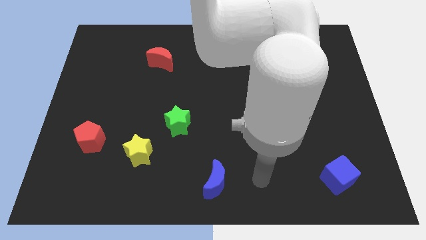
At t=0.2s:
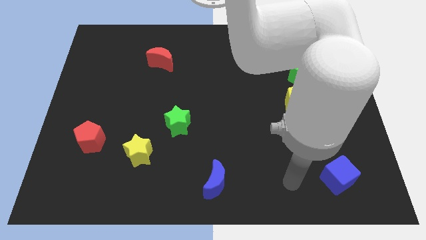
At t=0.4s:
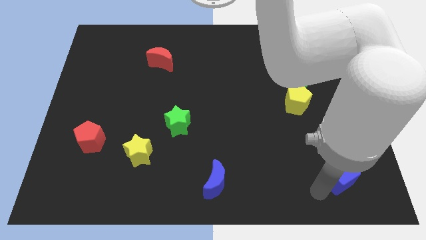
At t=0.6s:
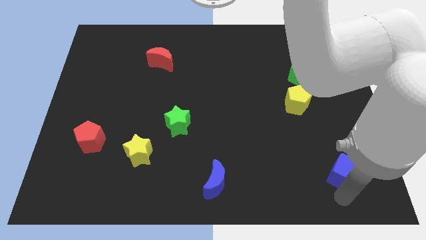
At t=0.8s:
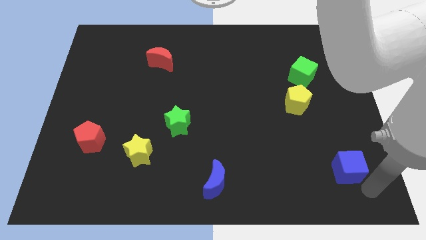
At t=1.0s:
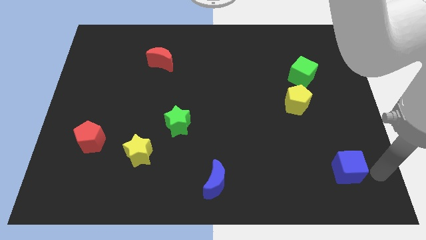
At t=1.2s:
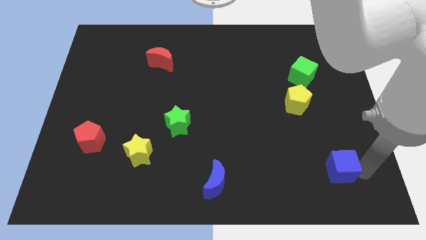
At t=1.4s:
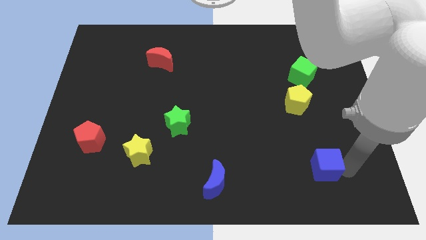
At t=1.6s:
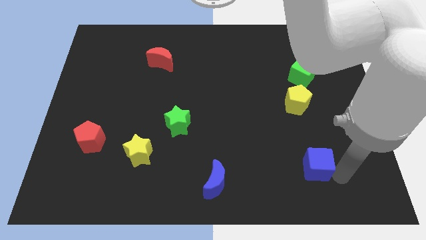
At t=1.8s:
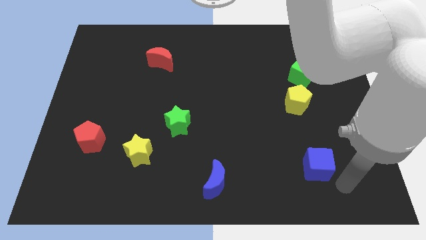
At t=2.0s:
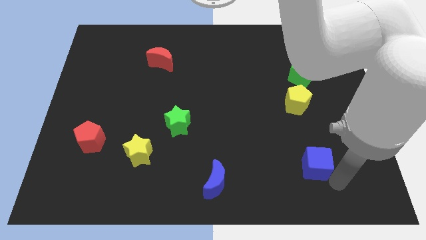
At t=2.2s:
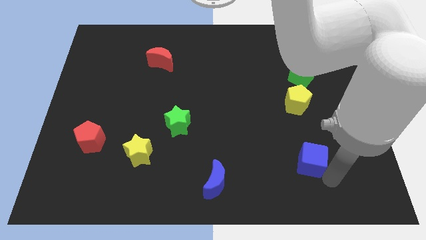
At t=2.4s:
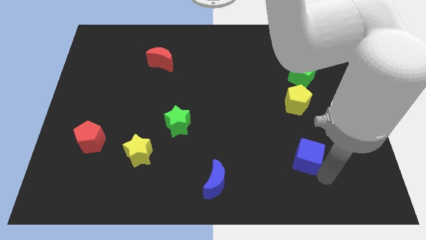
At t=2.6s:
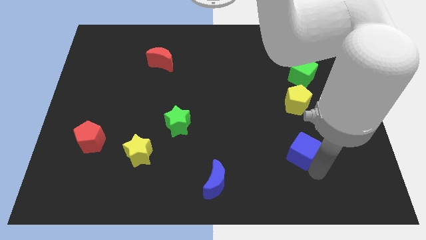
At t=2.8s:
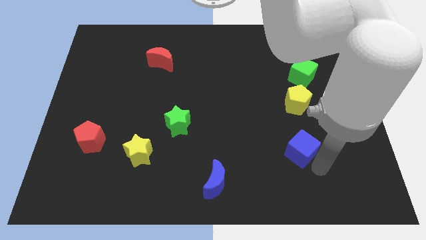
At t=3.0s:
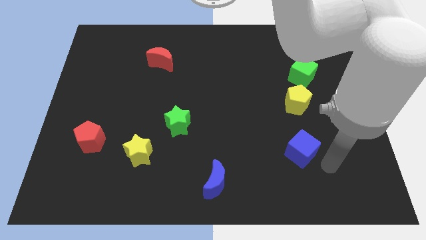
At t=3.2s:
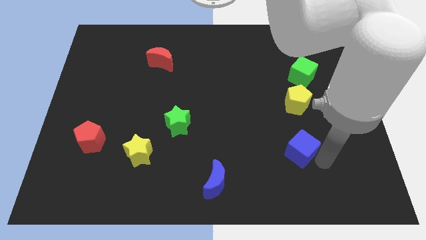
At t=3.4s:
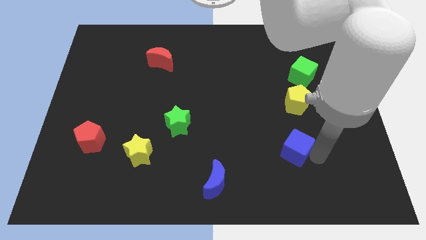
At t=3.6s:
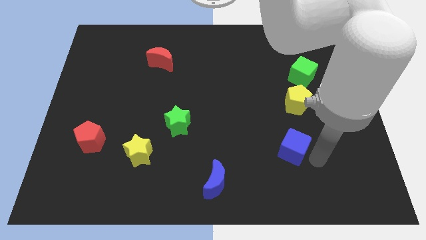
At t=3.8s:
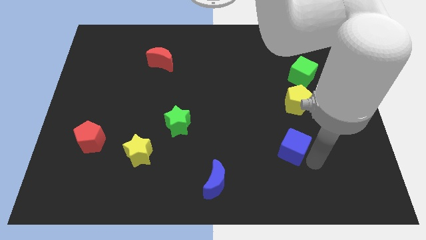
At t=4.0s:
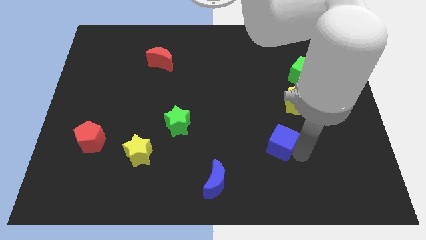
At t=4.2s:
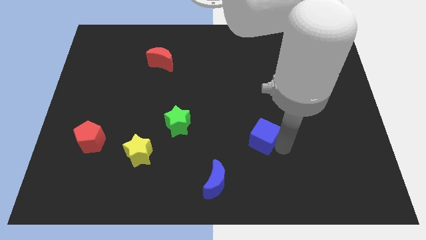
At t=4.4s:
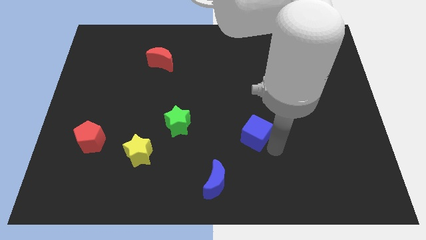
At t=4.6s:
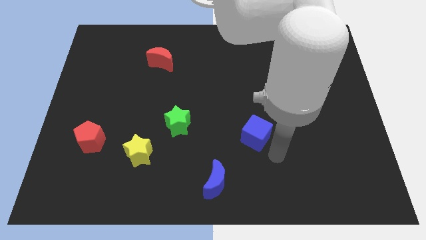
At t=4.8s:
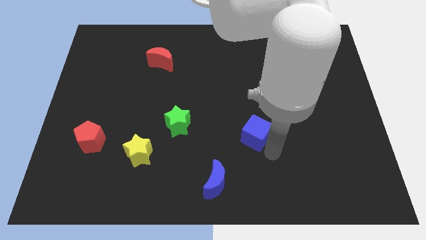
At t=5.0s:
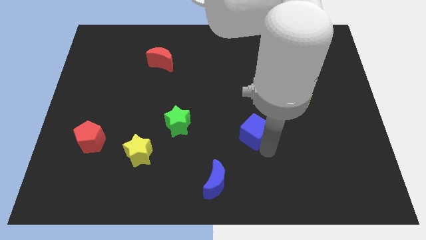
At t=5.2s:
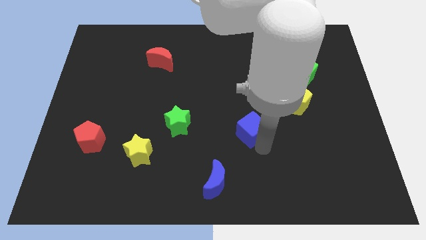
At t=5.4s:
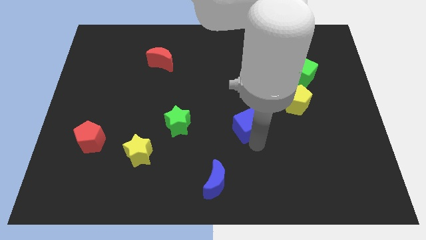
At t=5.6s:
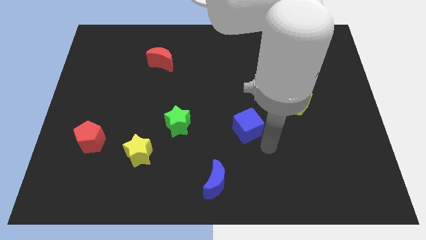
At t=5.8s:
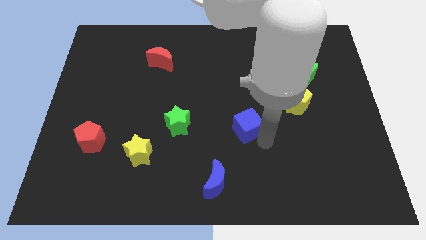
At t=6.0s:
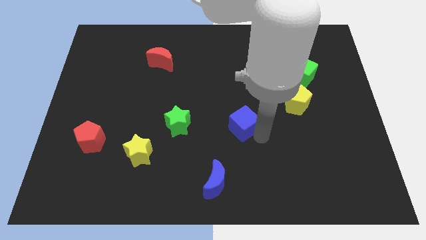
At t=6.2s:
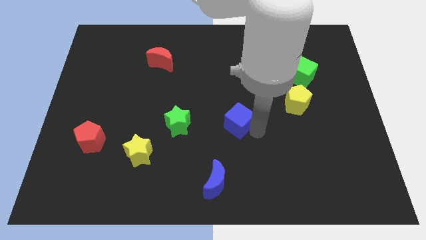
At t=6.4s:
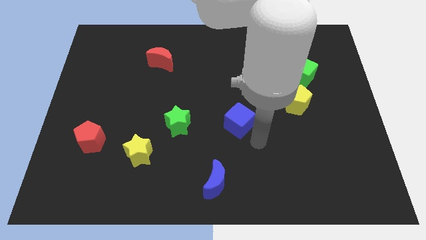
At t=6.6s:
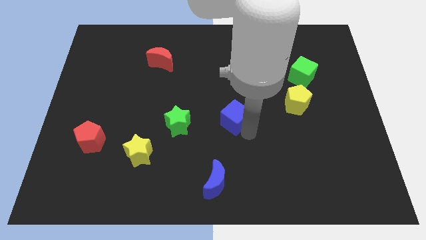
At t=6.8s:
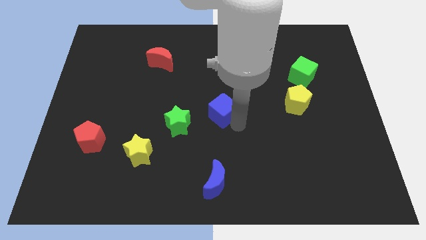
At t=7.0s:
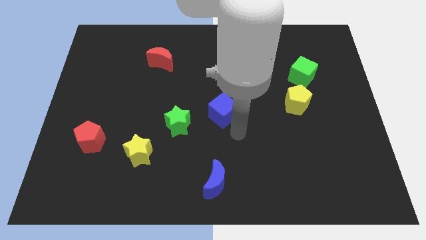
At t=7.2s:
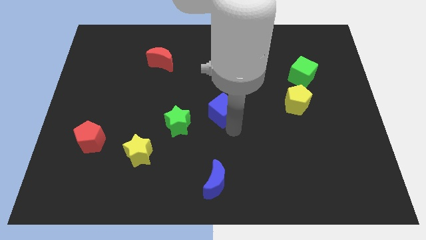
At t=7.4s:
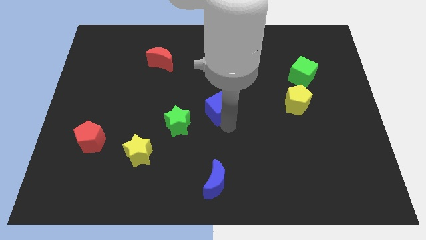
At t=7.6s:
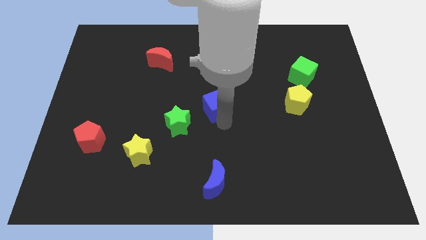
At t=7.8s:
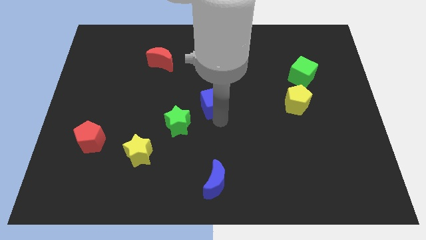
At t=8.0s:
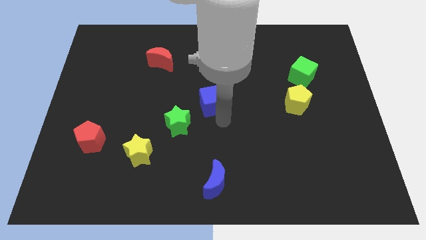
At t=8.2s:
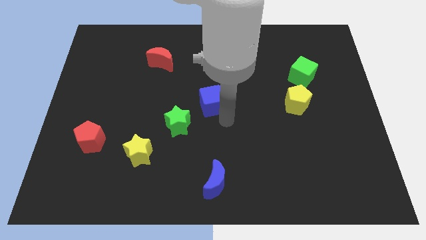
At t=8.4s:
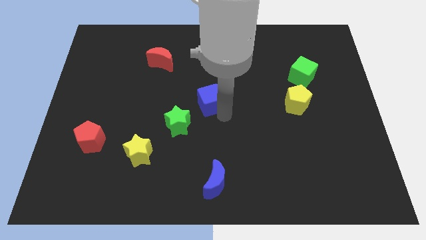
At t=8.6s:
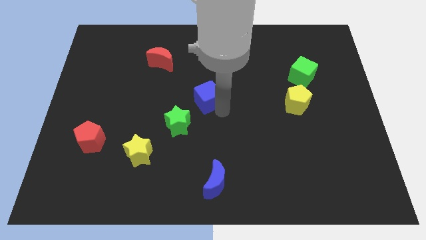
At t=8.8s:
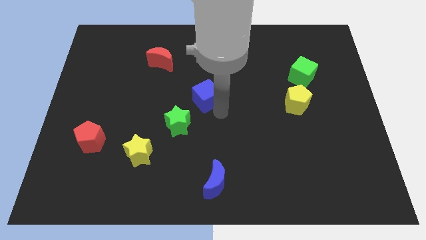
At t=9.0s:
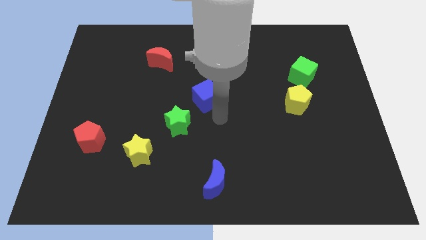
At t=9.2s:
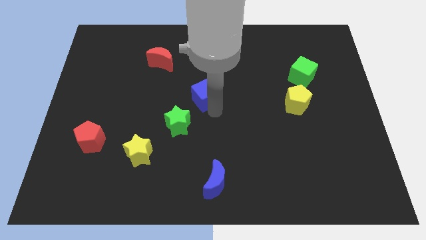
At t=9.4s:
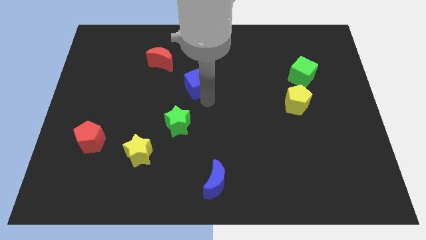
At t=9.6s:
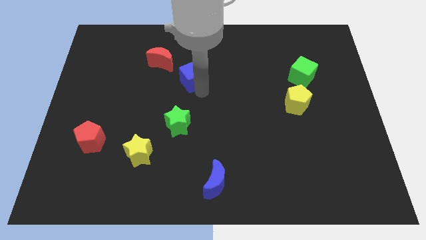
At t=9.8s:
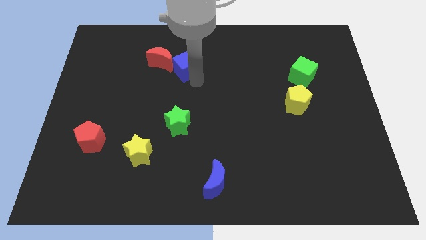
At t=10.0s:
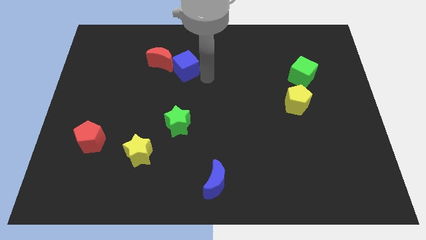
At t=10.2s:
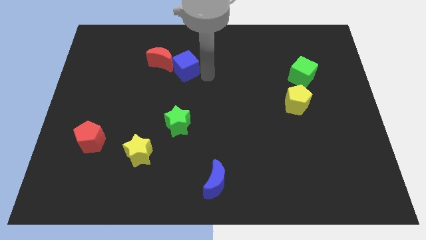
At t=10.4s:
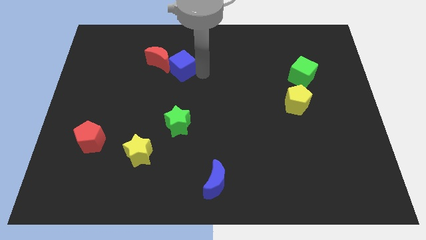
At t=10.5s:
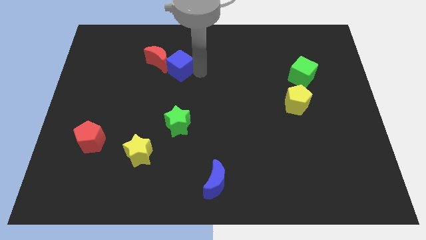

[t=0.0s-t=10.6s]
put the blue cube towards the red moon

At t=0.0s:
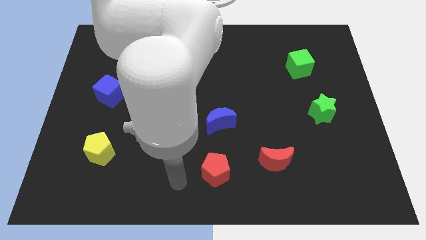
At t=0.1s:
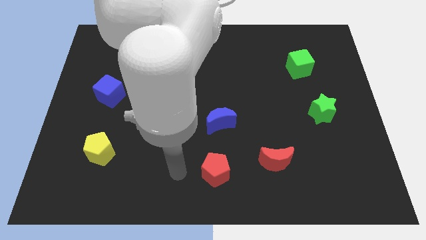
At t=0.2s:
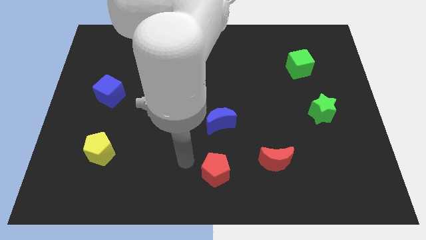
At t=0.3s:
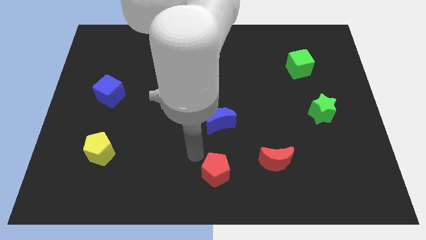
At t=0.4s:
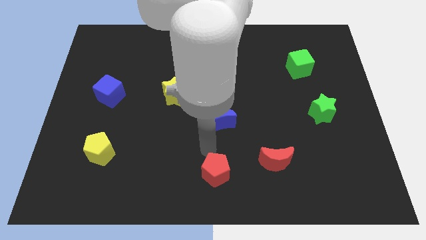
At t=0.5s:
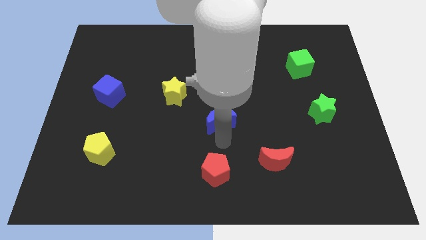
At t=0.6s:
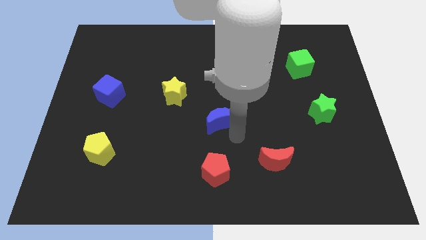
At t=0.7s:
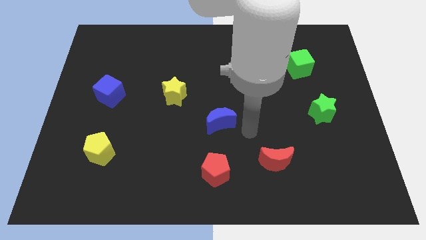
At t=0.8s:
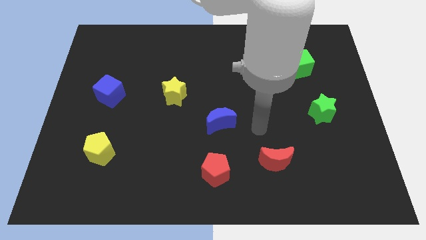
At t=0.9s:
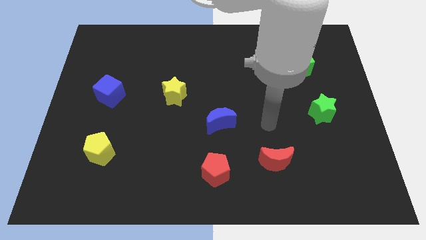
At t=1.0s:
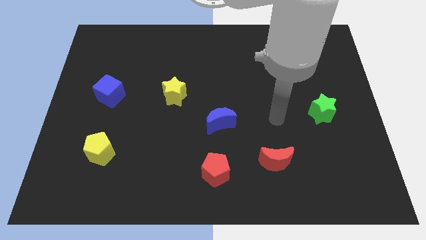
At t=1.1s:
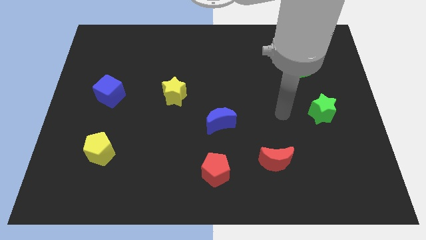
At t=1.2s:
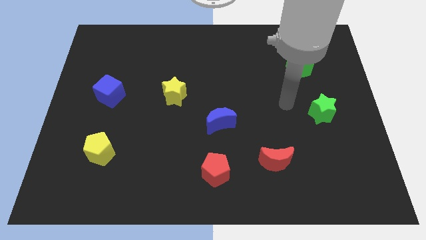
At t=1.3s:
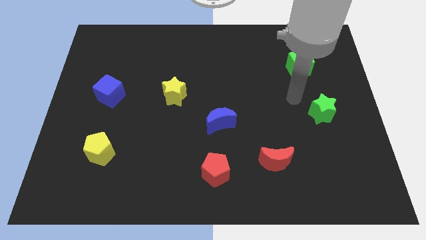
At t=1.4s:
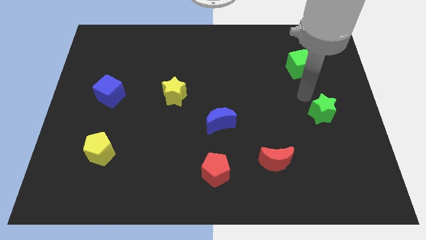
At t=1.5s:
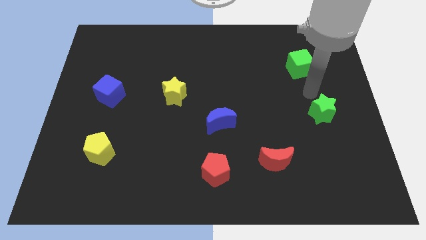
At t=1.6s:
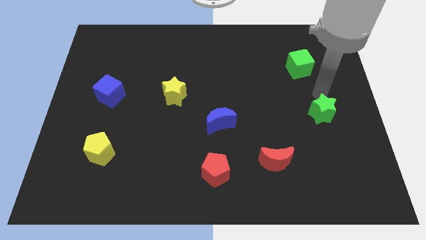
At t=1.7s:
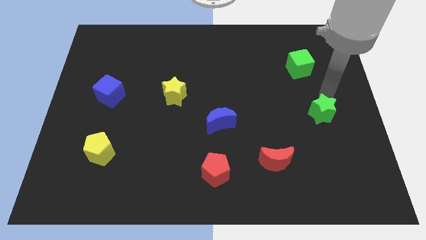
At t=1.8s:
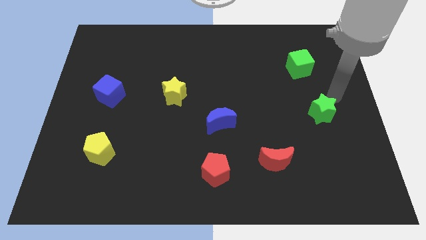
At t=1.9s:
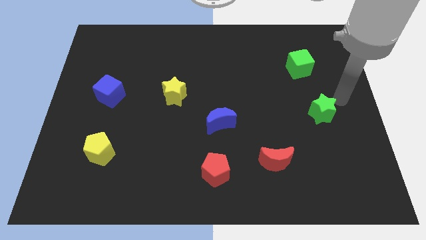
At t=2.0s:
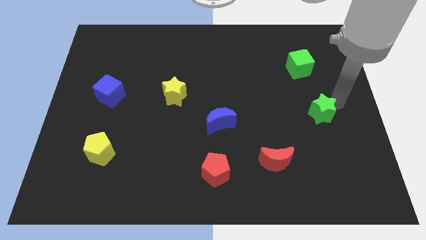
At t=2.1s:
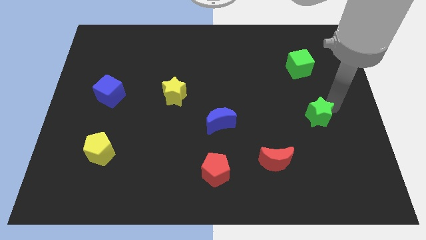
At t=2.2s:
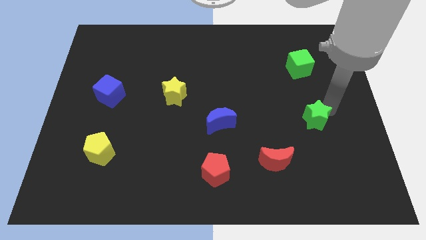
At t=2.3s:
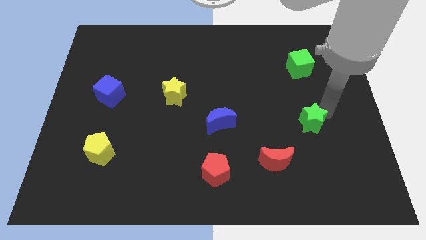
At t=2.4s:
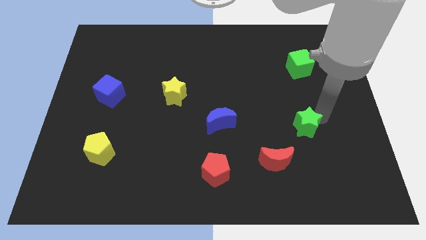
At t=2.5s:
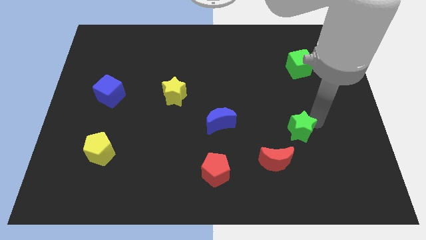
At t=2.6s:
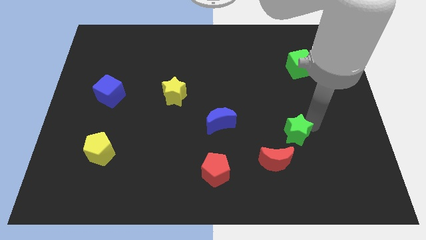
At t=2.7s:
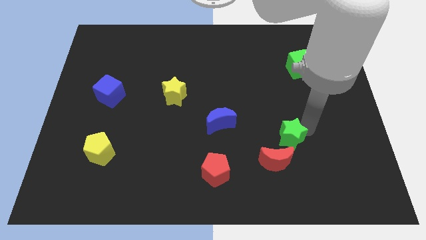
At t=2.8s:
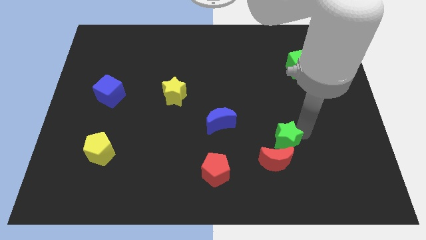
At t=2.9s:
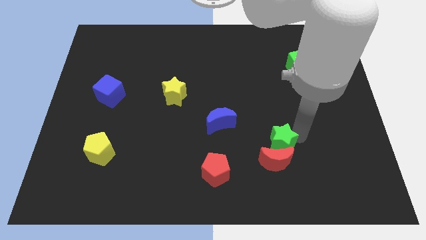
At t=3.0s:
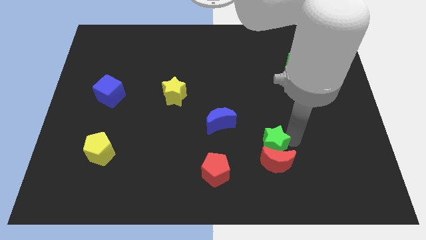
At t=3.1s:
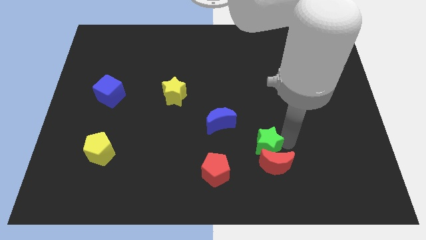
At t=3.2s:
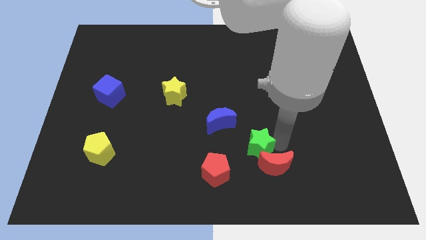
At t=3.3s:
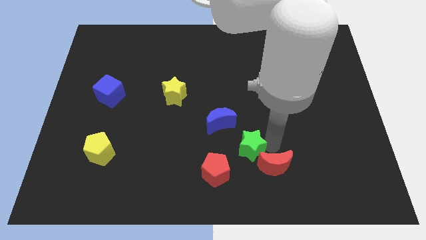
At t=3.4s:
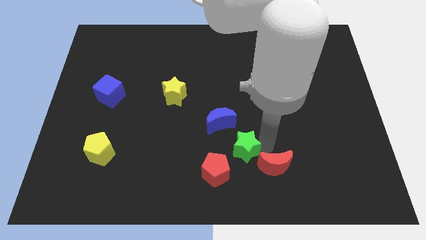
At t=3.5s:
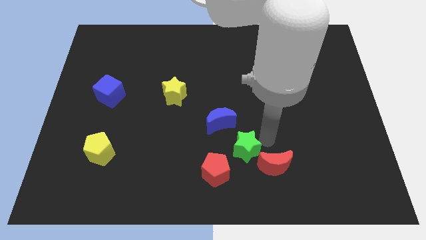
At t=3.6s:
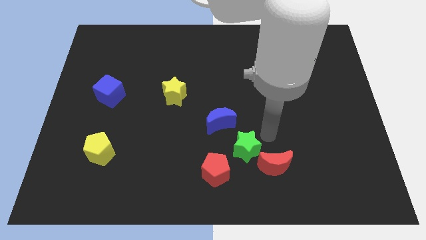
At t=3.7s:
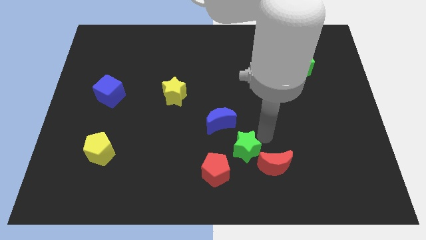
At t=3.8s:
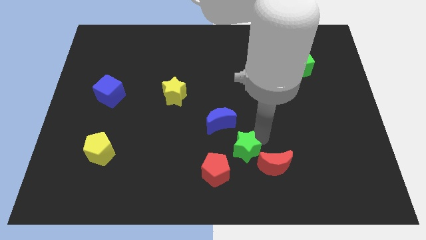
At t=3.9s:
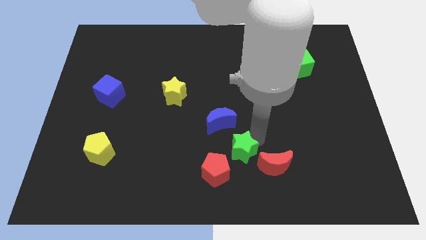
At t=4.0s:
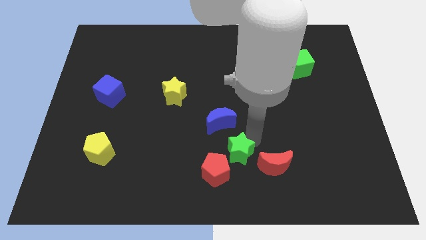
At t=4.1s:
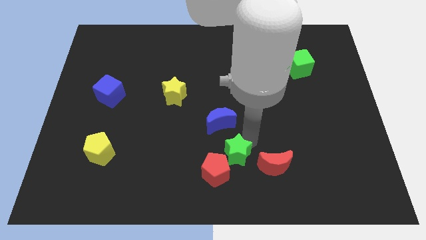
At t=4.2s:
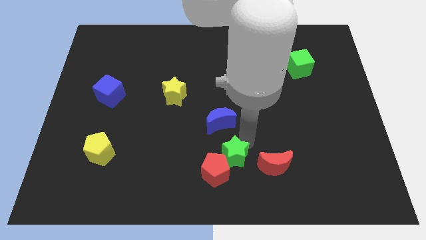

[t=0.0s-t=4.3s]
push the green star next to the red pentagon
